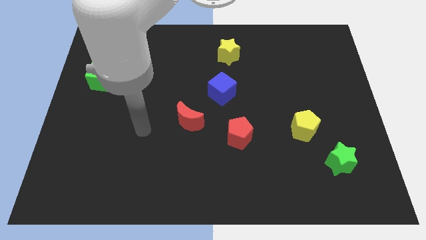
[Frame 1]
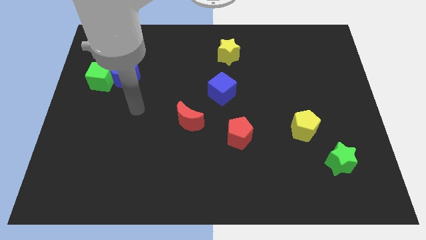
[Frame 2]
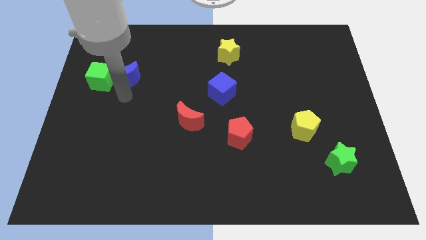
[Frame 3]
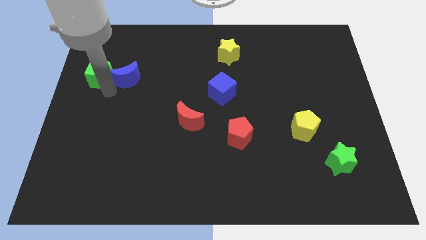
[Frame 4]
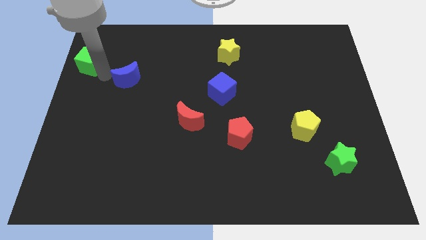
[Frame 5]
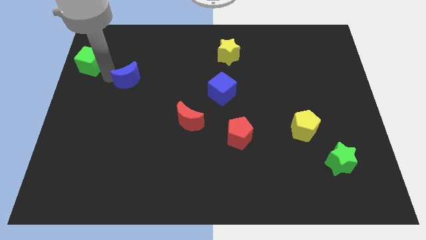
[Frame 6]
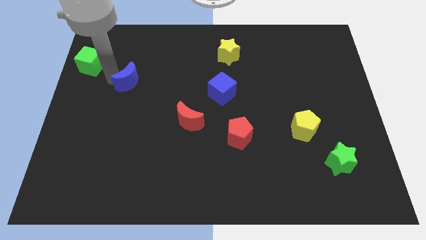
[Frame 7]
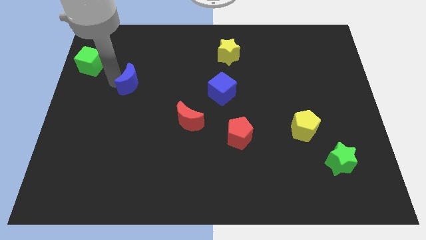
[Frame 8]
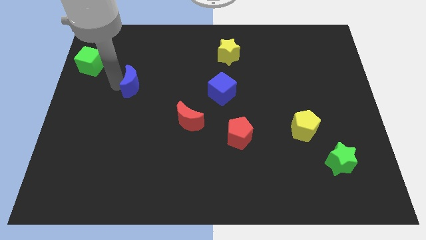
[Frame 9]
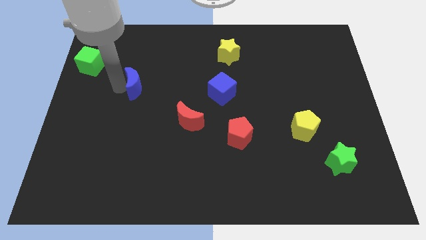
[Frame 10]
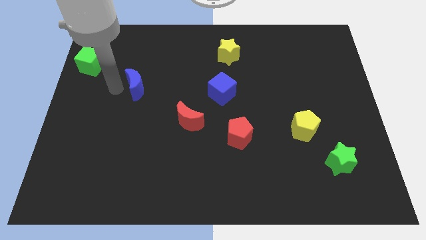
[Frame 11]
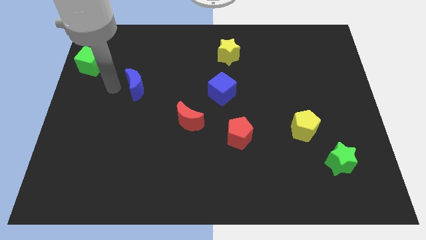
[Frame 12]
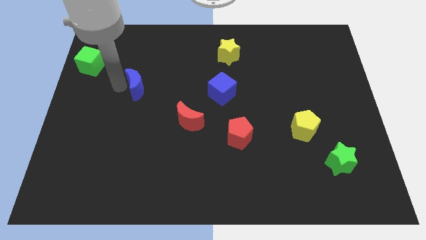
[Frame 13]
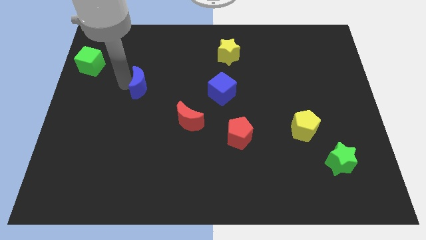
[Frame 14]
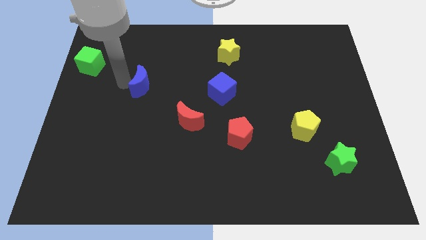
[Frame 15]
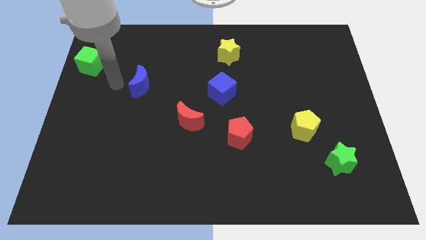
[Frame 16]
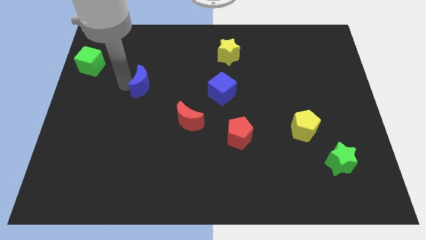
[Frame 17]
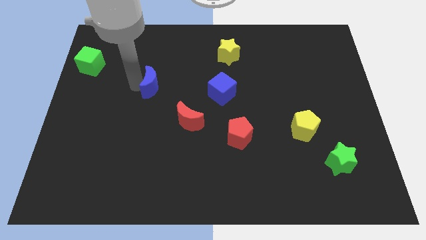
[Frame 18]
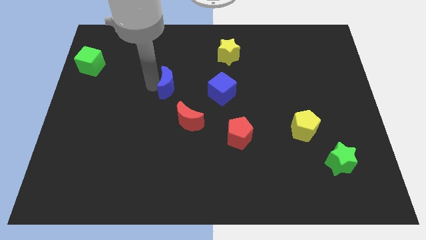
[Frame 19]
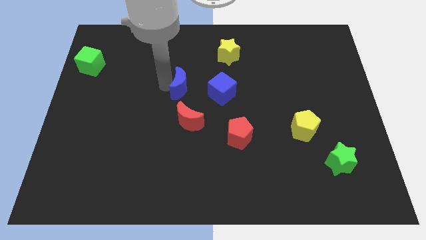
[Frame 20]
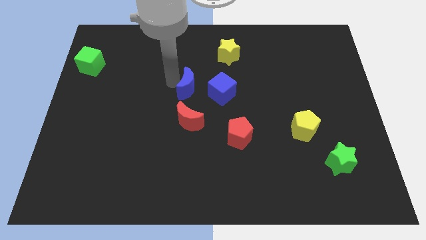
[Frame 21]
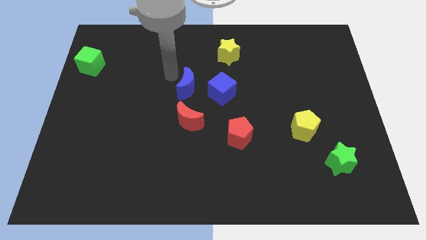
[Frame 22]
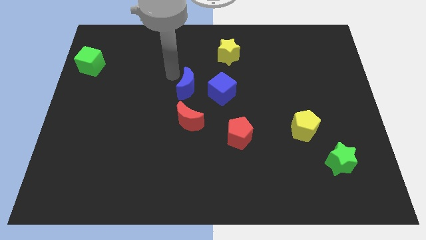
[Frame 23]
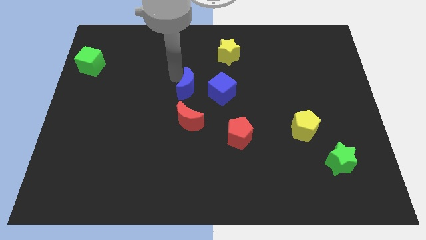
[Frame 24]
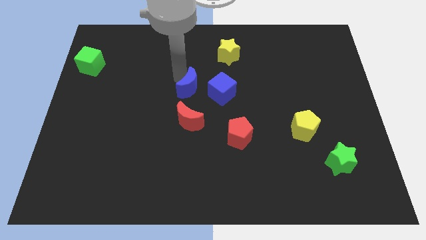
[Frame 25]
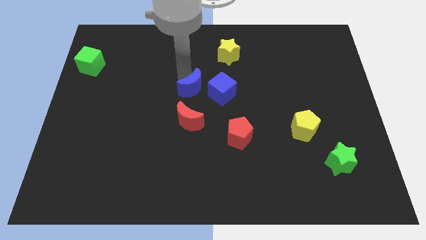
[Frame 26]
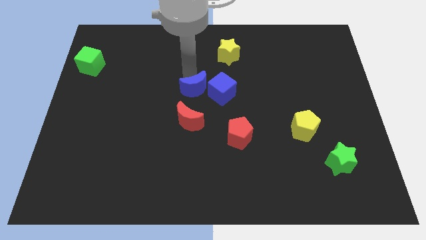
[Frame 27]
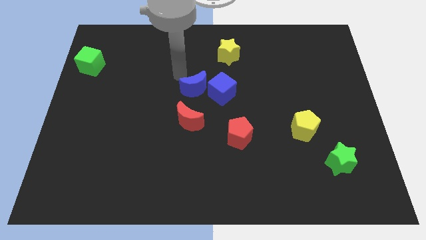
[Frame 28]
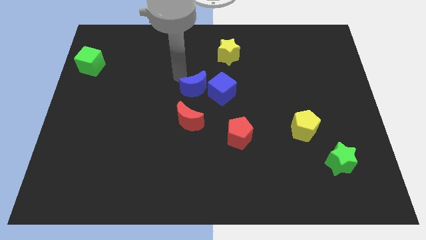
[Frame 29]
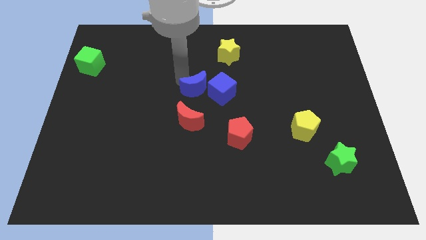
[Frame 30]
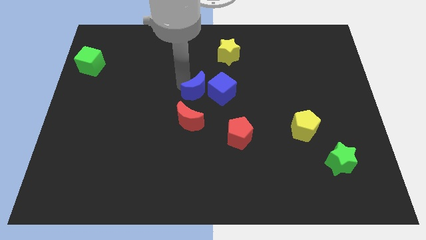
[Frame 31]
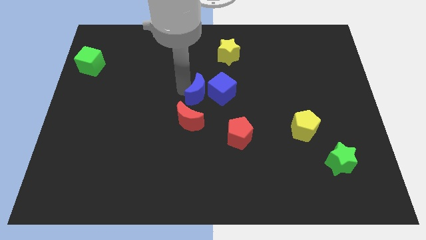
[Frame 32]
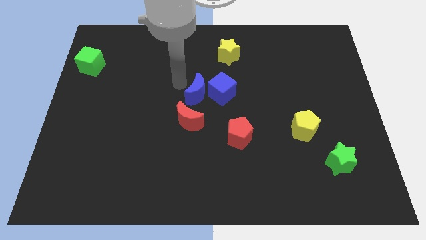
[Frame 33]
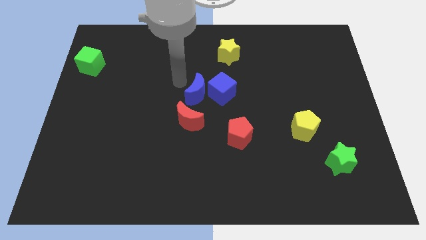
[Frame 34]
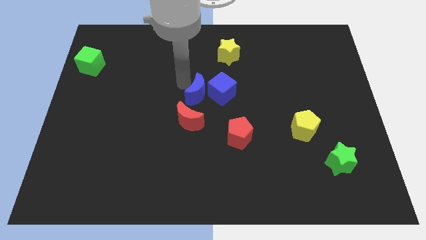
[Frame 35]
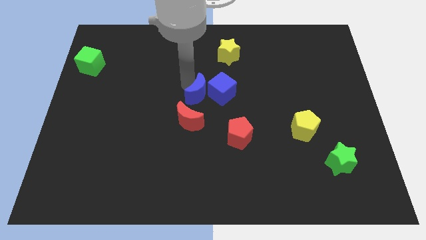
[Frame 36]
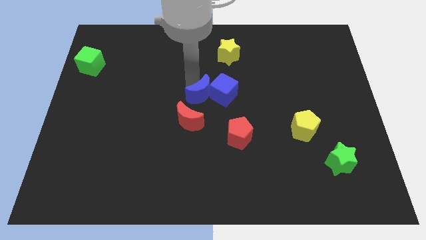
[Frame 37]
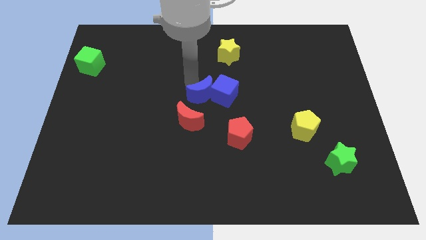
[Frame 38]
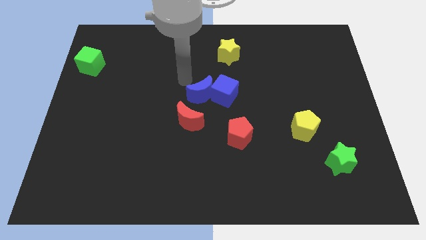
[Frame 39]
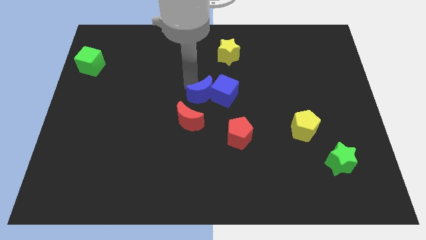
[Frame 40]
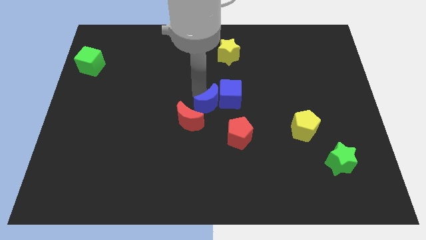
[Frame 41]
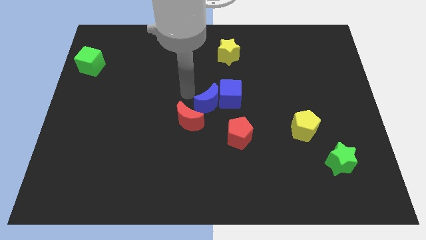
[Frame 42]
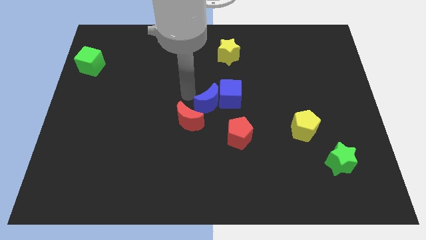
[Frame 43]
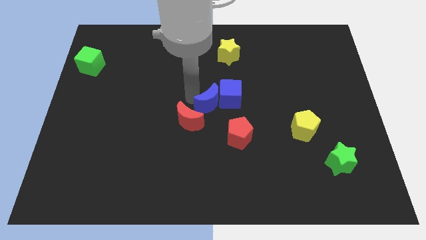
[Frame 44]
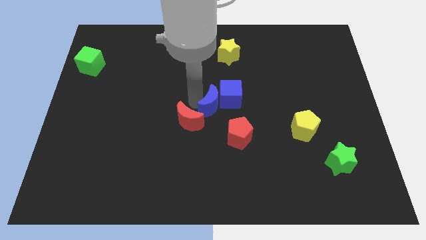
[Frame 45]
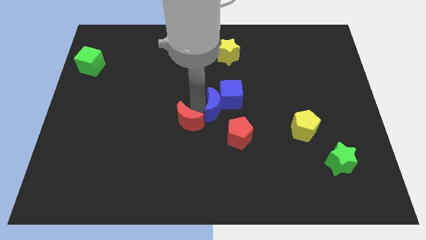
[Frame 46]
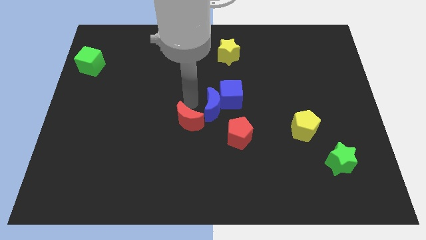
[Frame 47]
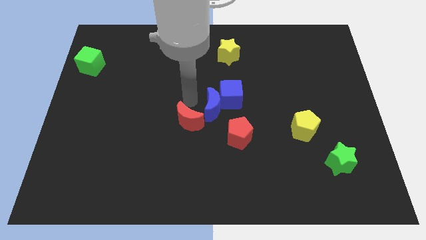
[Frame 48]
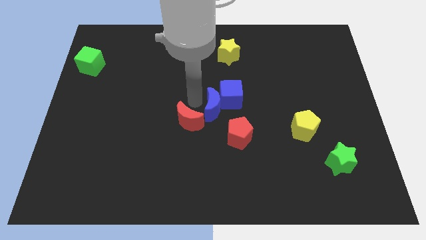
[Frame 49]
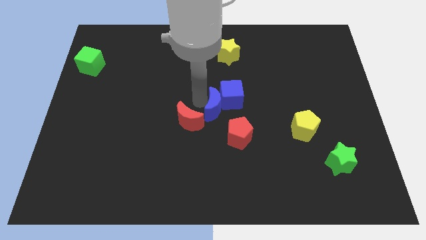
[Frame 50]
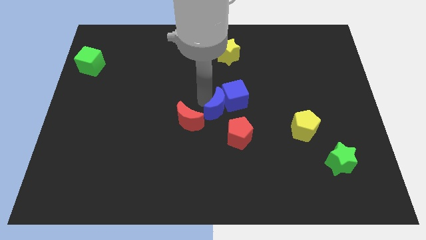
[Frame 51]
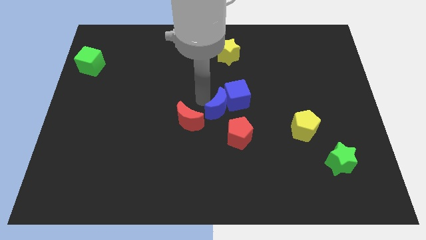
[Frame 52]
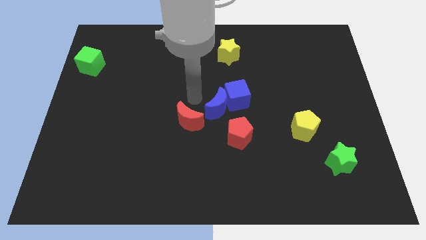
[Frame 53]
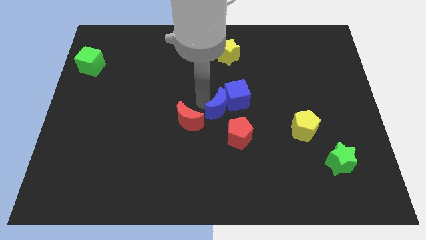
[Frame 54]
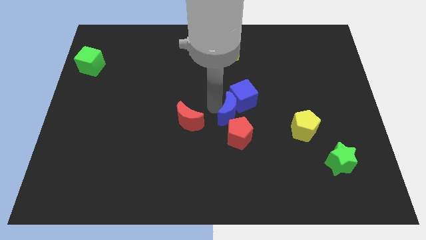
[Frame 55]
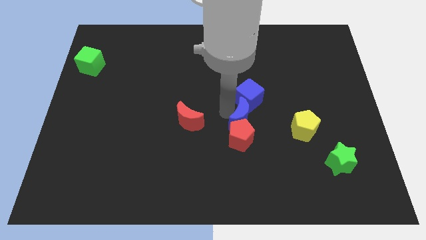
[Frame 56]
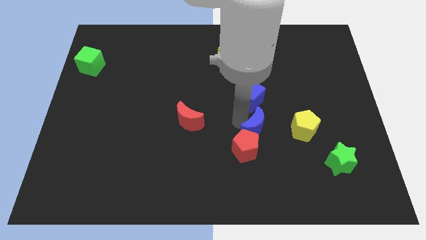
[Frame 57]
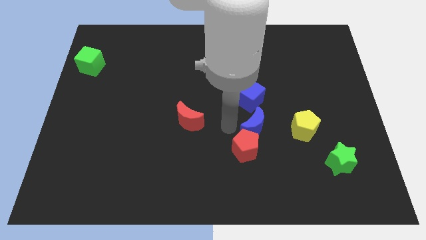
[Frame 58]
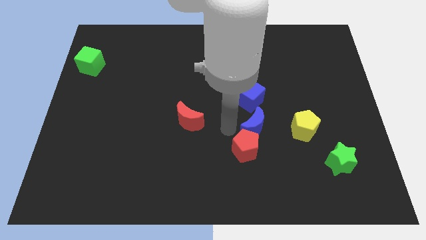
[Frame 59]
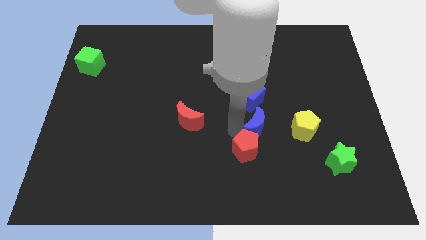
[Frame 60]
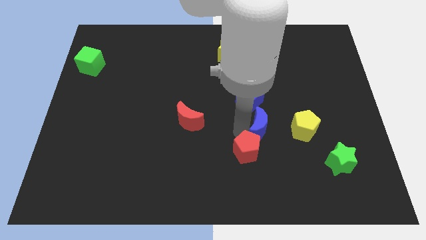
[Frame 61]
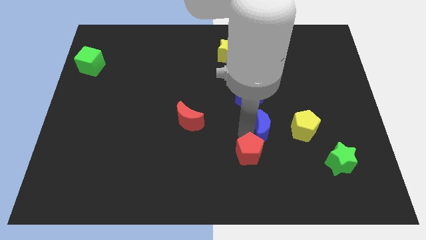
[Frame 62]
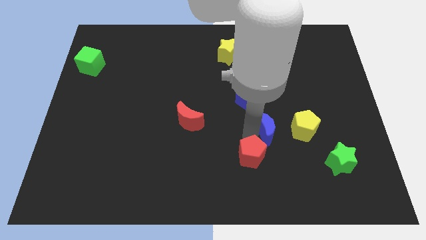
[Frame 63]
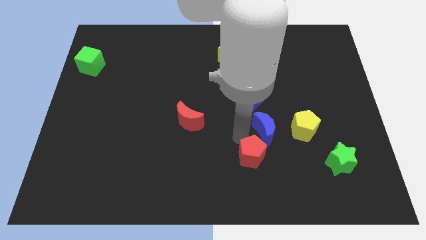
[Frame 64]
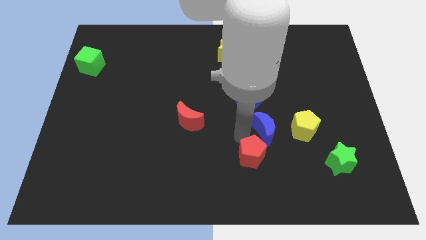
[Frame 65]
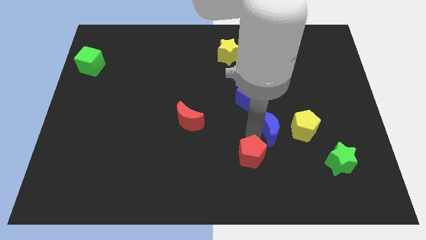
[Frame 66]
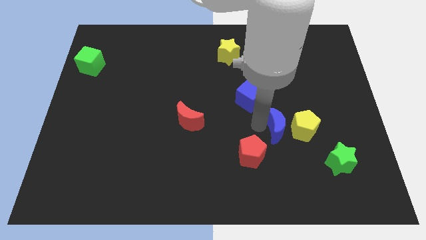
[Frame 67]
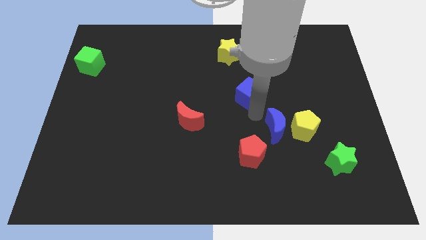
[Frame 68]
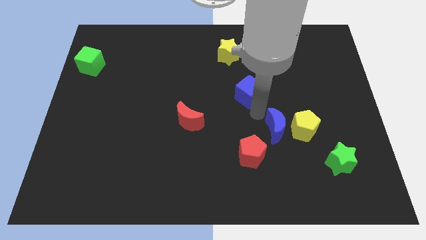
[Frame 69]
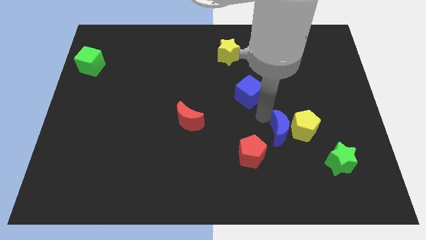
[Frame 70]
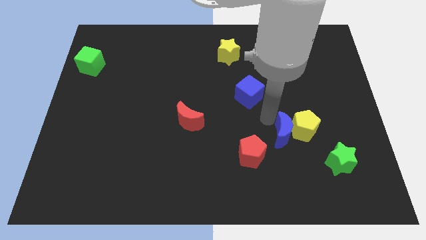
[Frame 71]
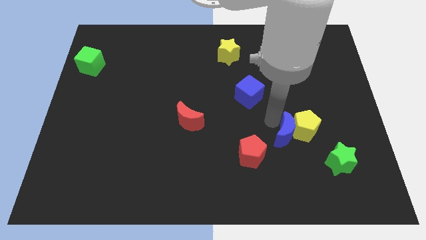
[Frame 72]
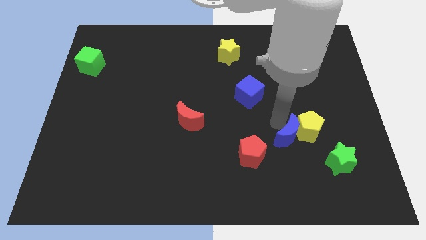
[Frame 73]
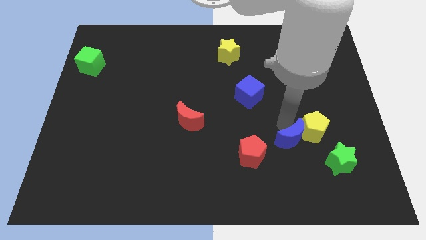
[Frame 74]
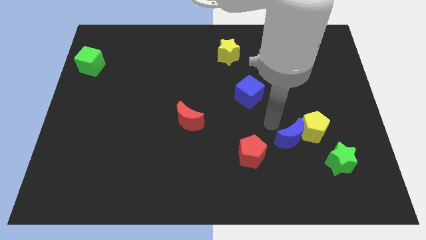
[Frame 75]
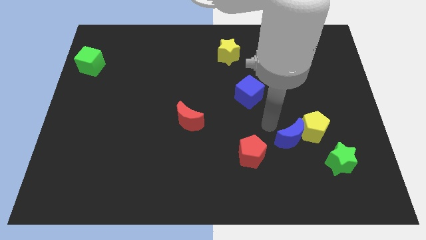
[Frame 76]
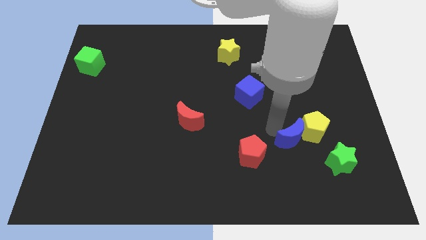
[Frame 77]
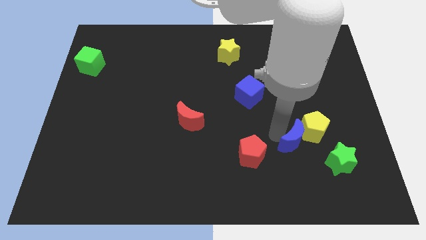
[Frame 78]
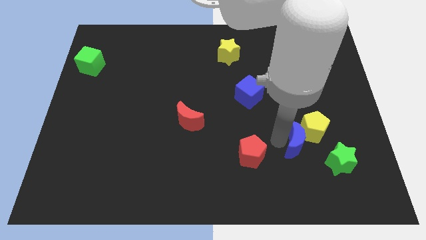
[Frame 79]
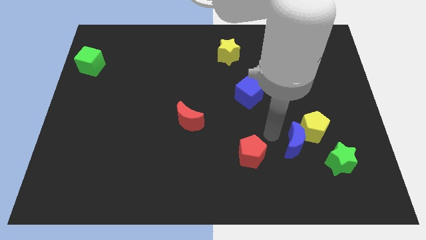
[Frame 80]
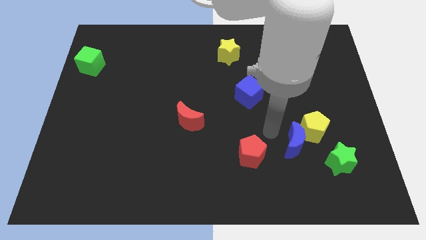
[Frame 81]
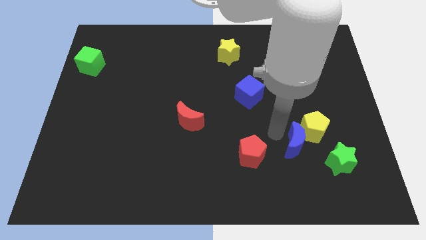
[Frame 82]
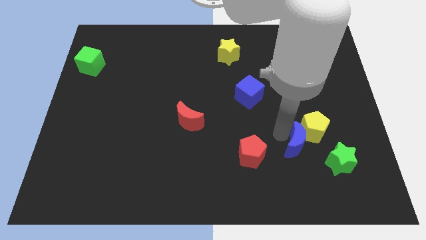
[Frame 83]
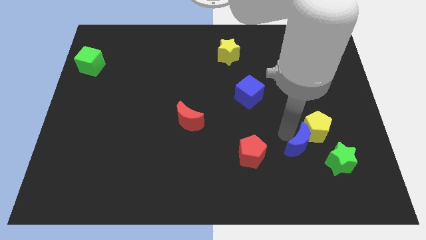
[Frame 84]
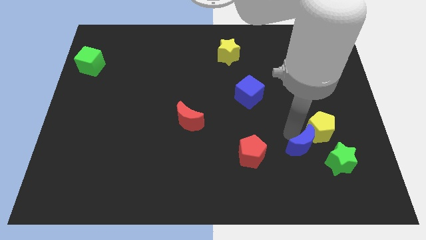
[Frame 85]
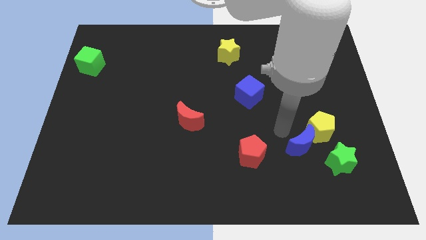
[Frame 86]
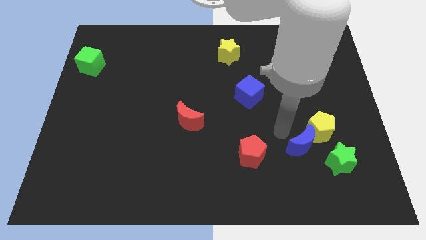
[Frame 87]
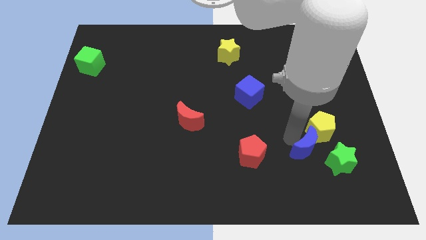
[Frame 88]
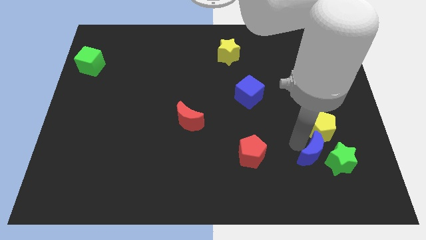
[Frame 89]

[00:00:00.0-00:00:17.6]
move the blue moon next to the green star
